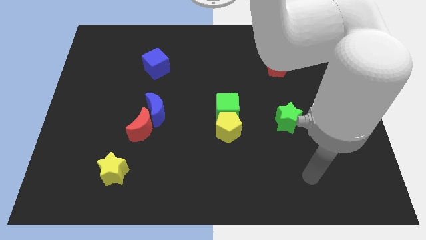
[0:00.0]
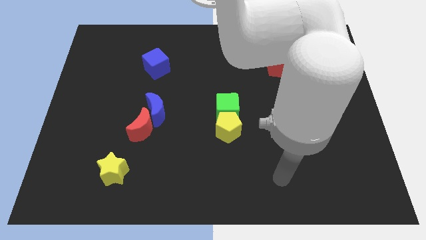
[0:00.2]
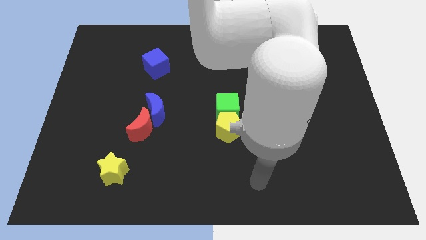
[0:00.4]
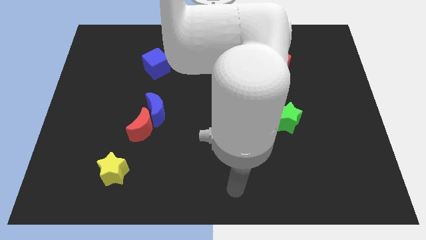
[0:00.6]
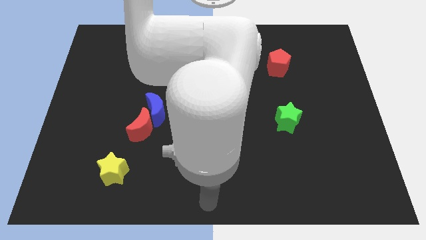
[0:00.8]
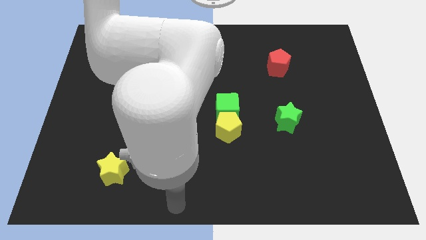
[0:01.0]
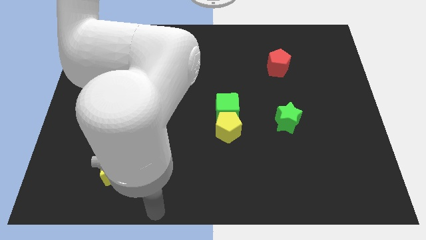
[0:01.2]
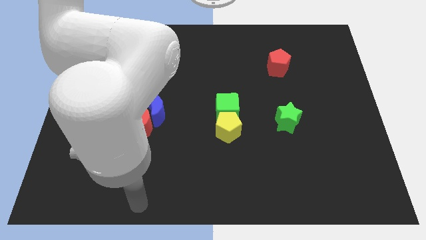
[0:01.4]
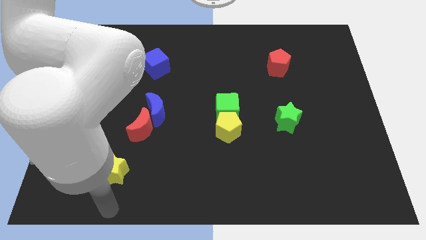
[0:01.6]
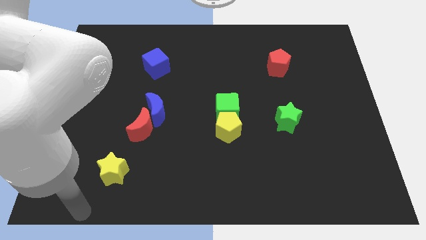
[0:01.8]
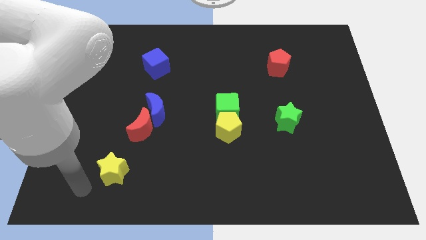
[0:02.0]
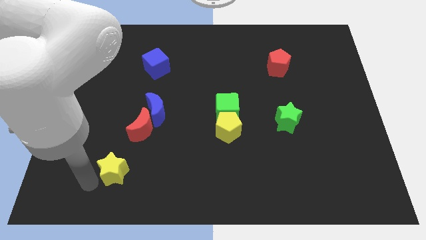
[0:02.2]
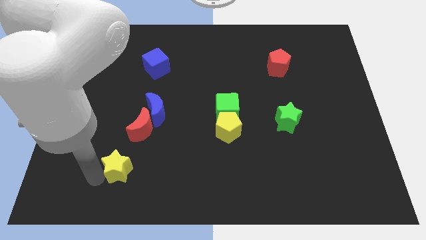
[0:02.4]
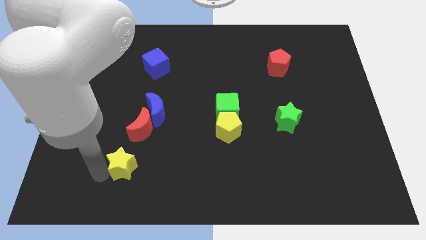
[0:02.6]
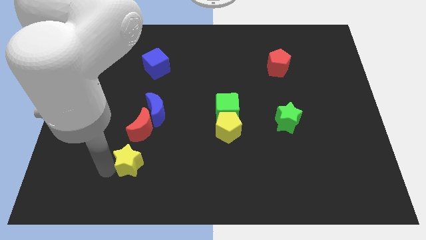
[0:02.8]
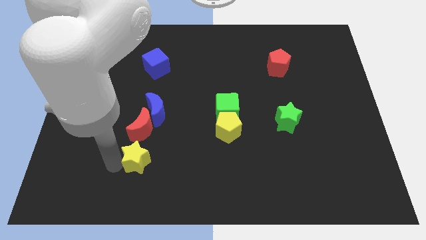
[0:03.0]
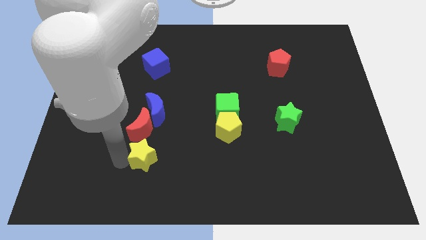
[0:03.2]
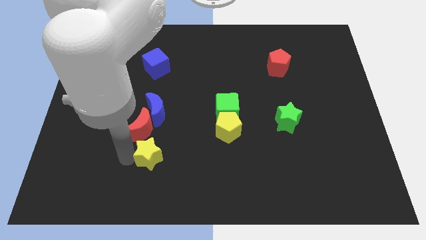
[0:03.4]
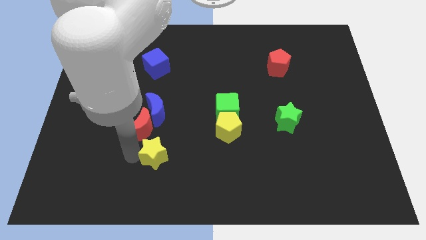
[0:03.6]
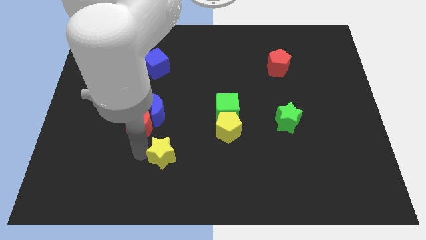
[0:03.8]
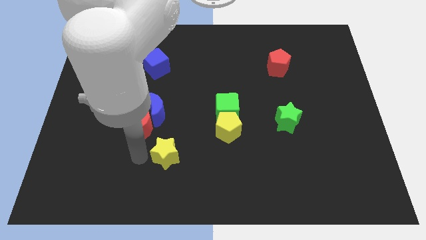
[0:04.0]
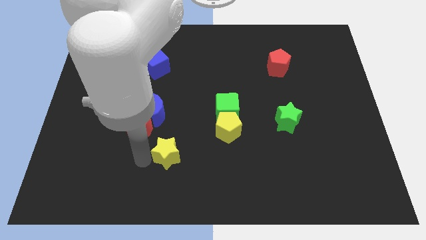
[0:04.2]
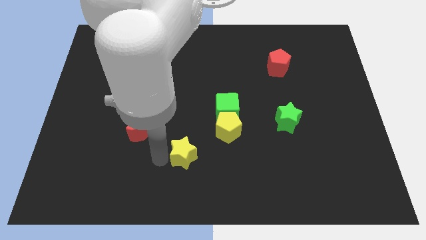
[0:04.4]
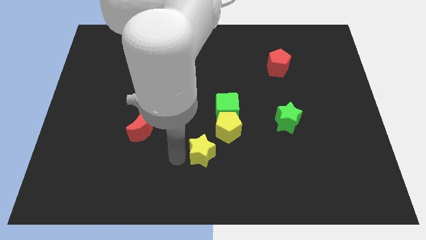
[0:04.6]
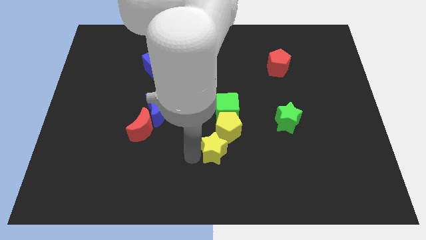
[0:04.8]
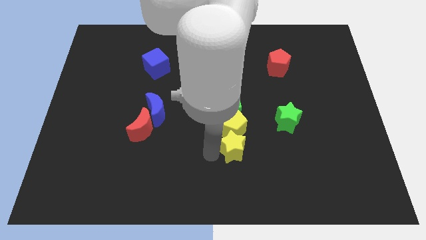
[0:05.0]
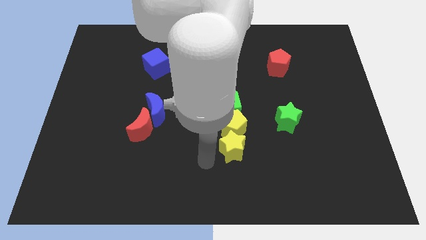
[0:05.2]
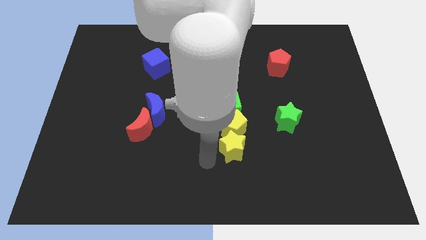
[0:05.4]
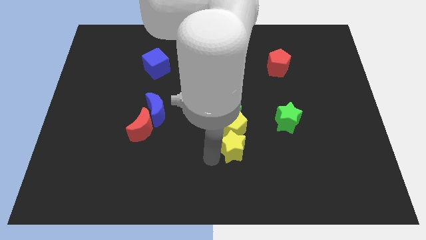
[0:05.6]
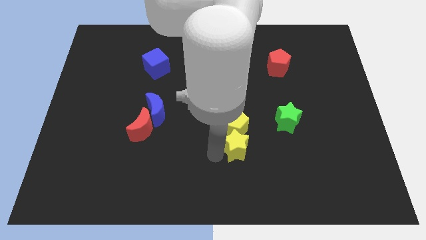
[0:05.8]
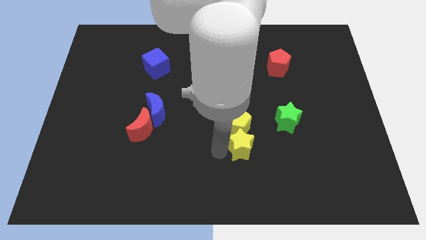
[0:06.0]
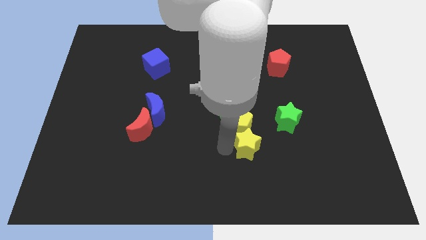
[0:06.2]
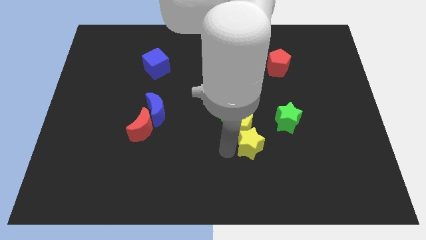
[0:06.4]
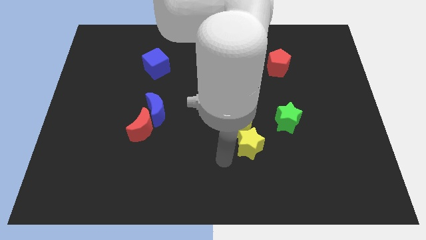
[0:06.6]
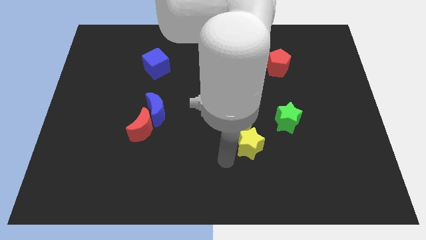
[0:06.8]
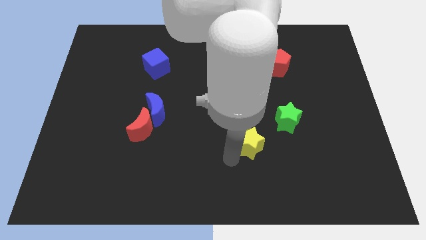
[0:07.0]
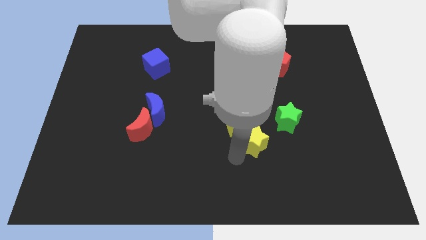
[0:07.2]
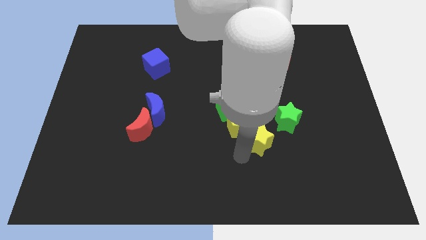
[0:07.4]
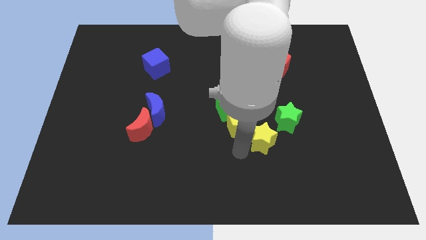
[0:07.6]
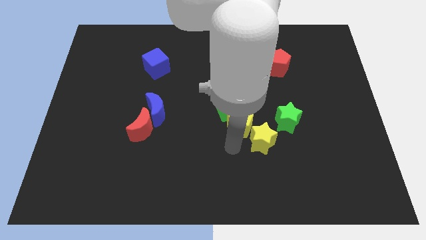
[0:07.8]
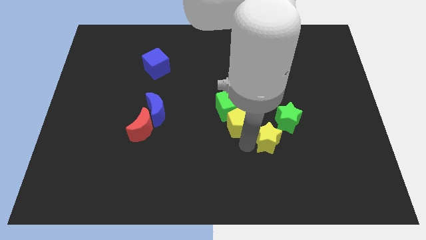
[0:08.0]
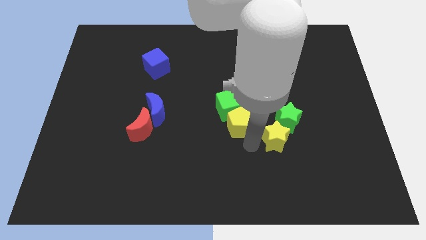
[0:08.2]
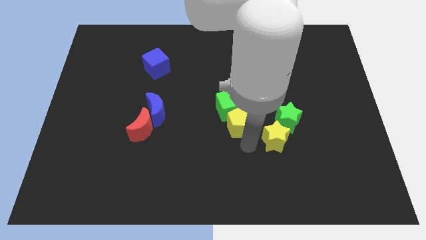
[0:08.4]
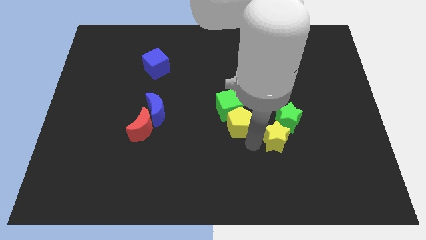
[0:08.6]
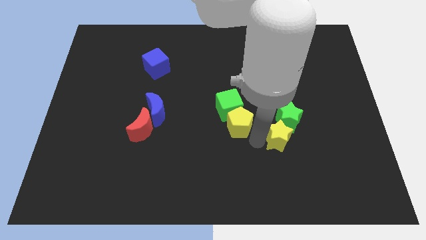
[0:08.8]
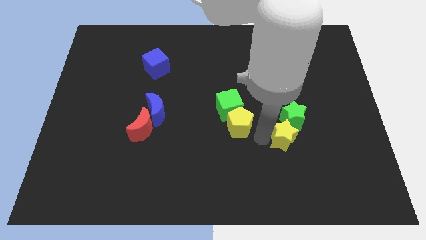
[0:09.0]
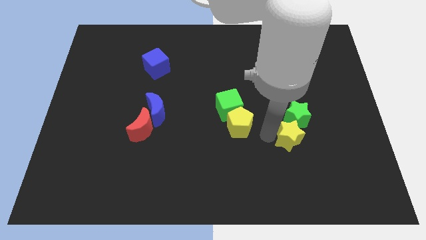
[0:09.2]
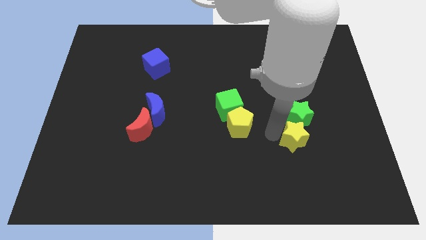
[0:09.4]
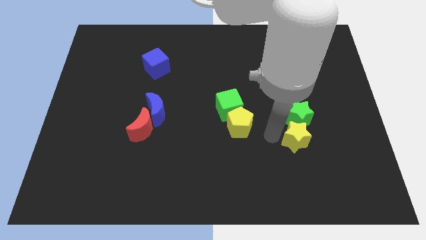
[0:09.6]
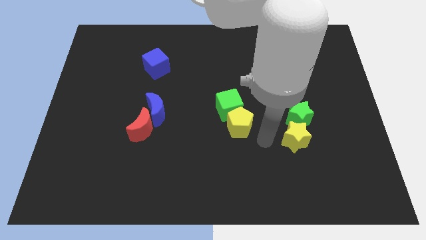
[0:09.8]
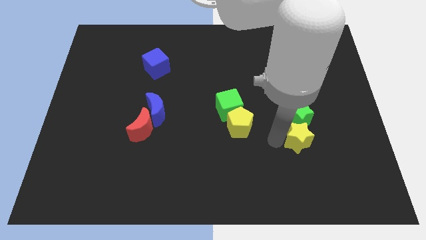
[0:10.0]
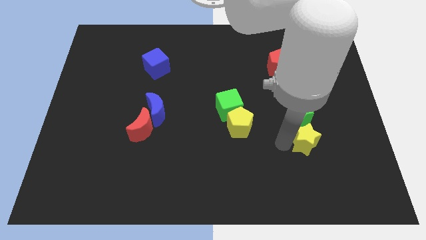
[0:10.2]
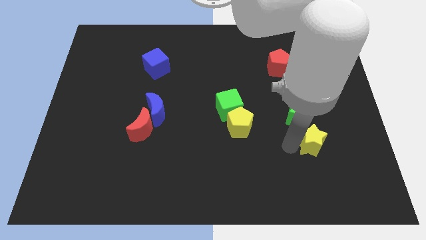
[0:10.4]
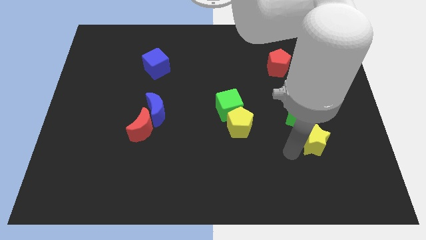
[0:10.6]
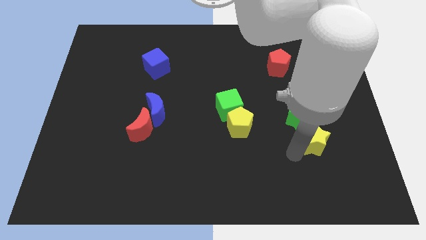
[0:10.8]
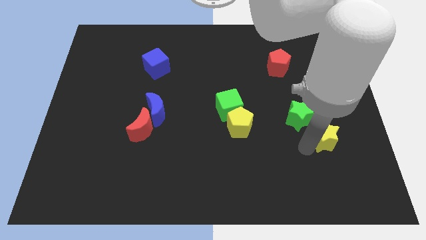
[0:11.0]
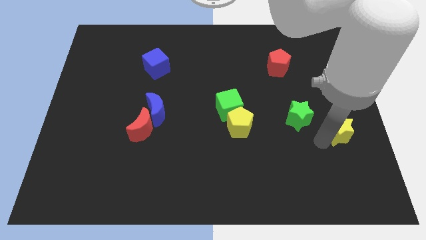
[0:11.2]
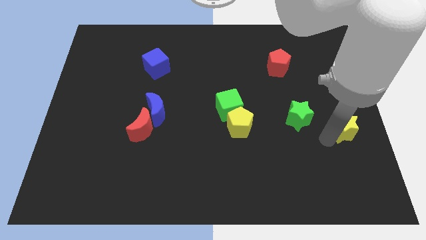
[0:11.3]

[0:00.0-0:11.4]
move the yellow star to the right side
